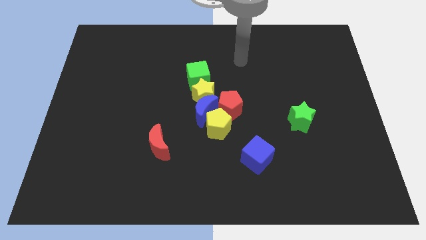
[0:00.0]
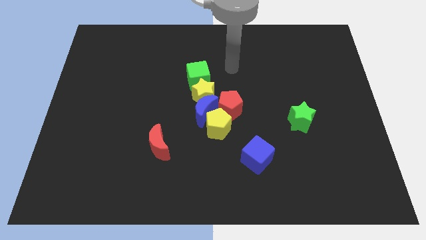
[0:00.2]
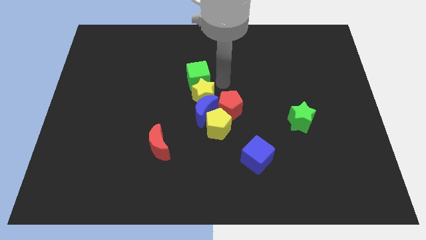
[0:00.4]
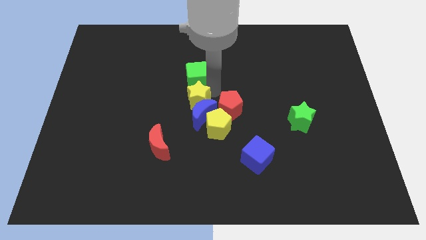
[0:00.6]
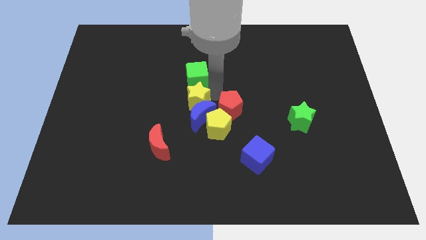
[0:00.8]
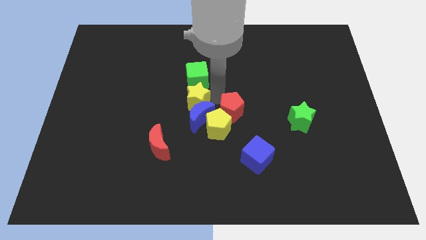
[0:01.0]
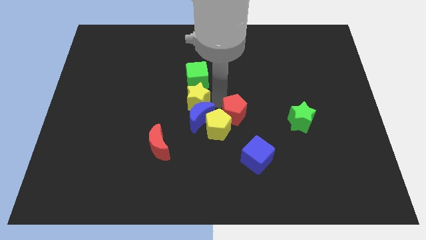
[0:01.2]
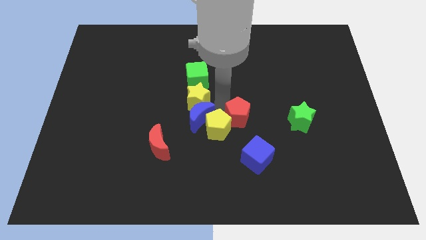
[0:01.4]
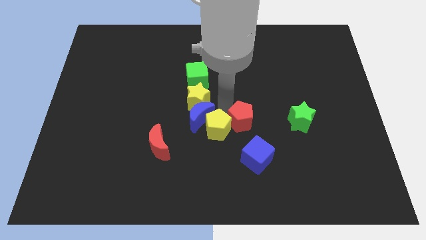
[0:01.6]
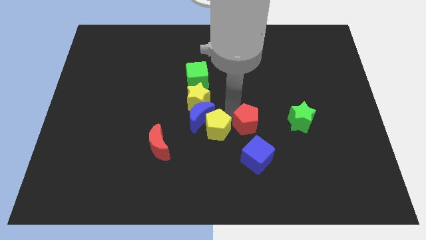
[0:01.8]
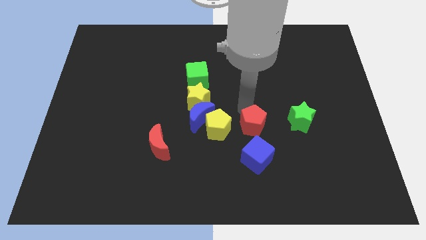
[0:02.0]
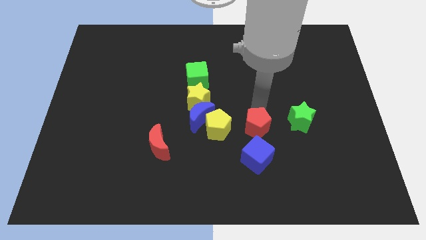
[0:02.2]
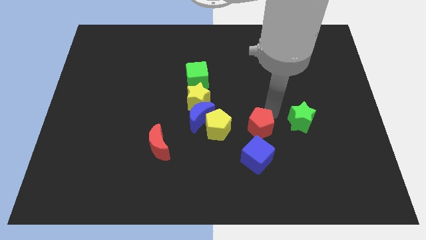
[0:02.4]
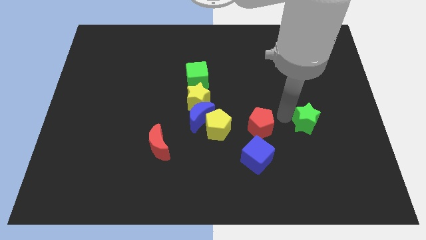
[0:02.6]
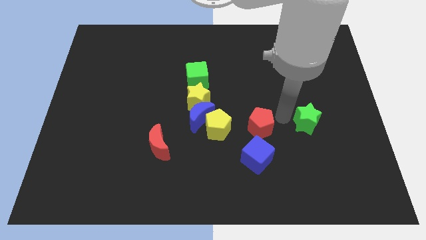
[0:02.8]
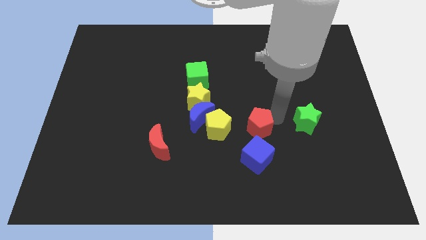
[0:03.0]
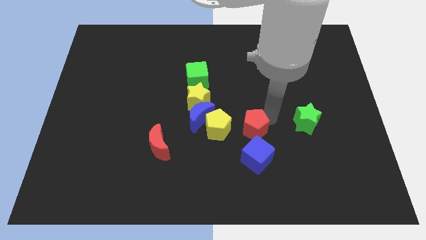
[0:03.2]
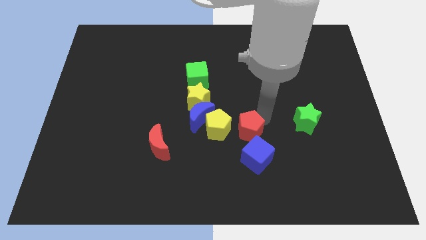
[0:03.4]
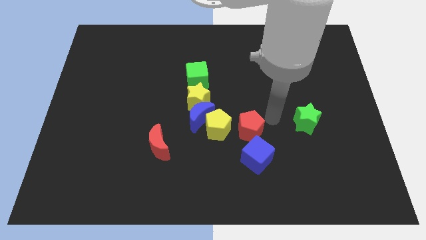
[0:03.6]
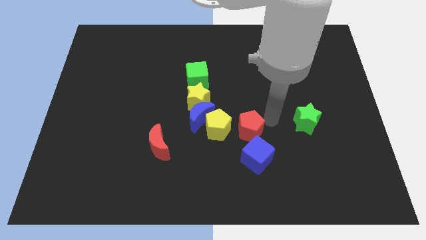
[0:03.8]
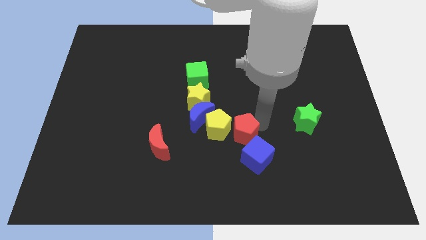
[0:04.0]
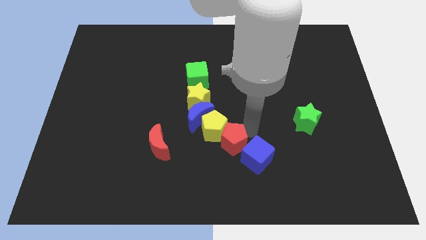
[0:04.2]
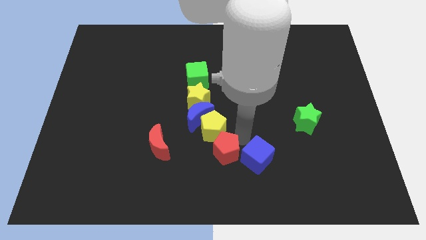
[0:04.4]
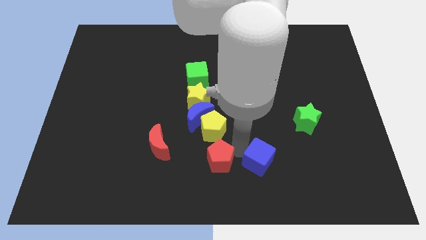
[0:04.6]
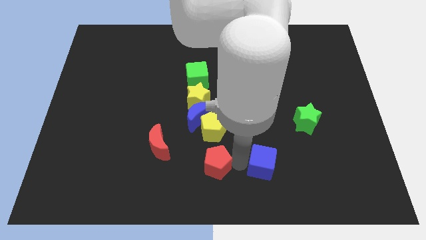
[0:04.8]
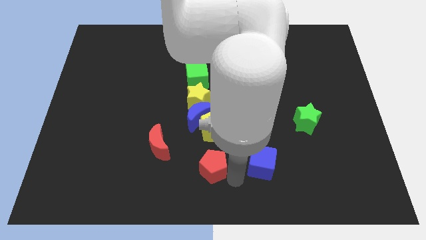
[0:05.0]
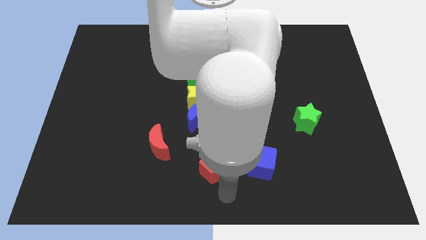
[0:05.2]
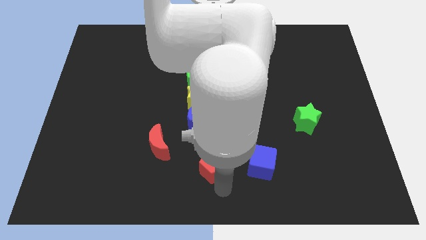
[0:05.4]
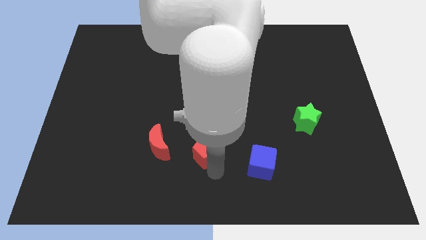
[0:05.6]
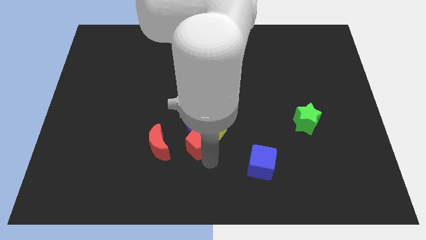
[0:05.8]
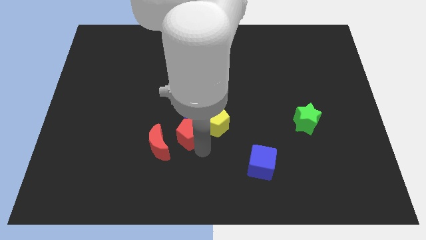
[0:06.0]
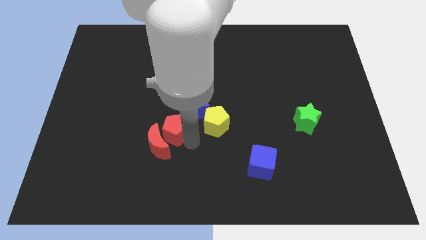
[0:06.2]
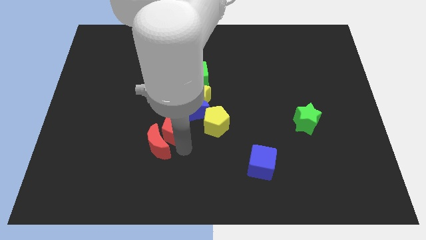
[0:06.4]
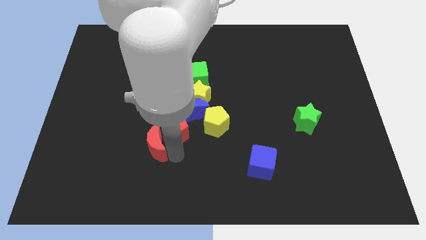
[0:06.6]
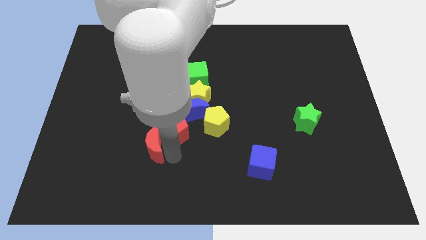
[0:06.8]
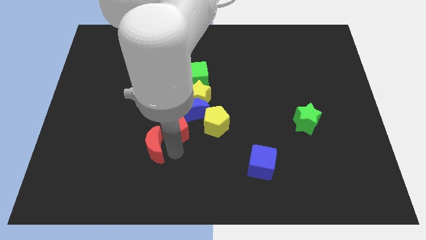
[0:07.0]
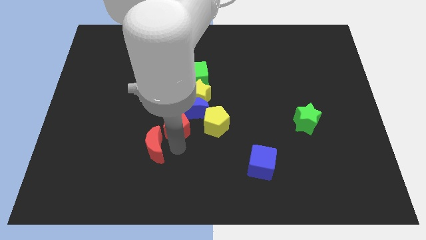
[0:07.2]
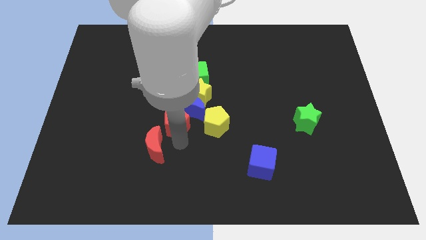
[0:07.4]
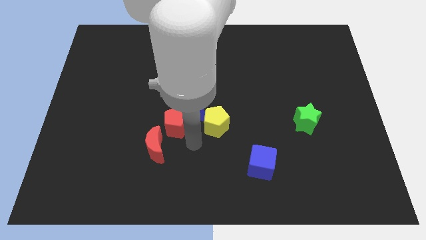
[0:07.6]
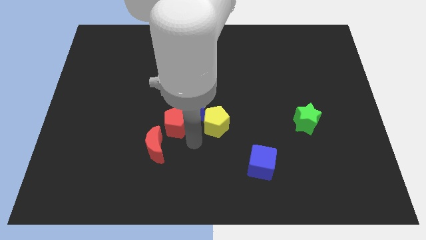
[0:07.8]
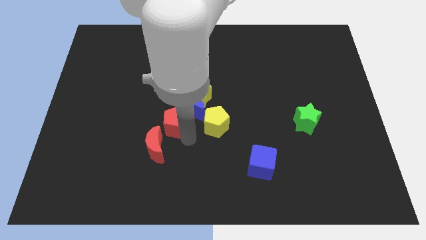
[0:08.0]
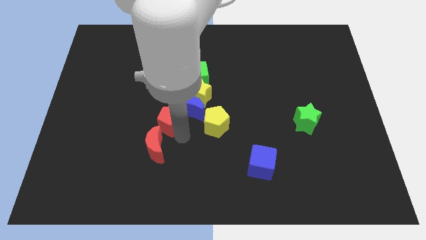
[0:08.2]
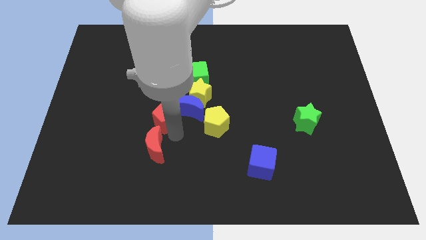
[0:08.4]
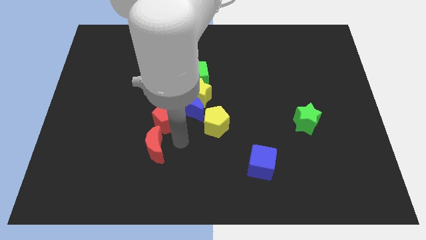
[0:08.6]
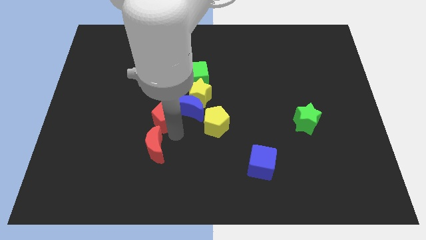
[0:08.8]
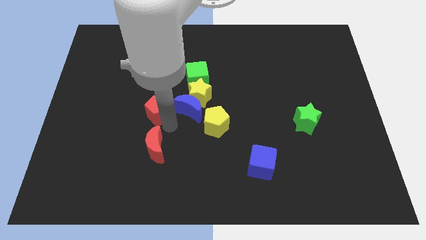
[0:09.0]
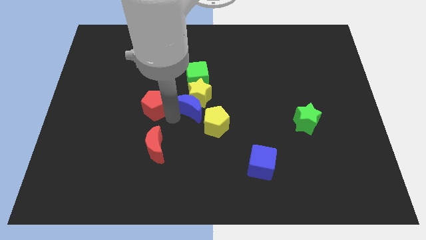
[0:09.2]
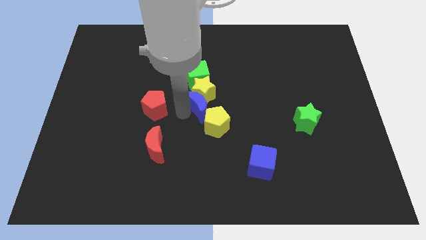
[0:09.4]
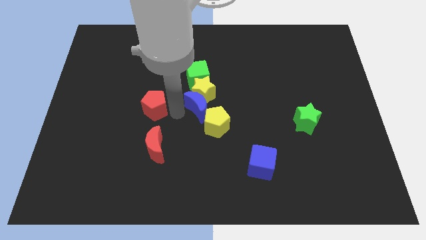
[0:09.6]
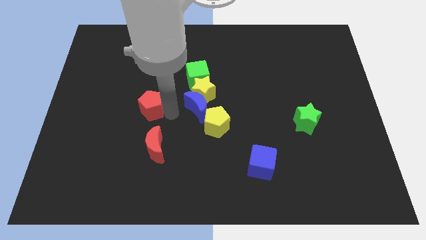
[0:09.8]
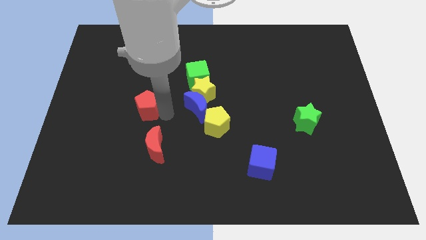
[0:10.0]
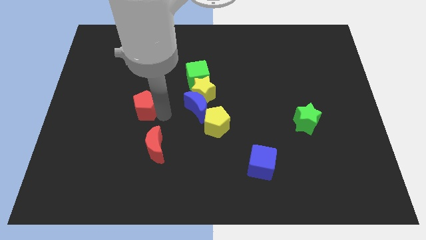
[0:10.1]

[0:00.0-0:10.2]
slide the red pentagon to the left

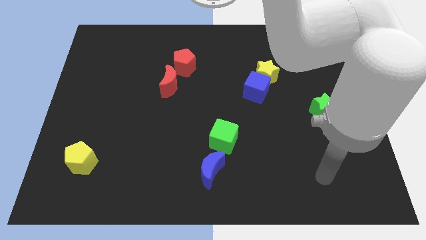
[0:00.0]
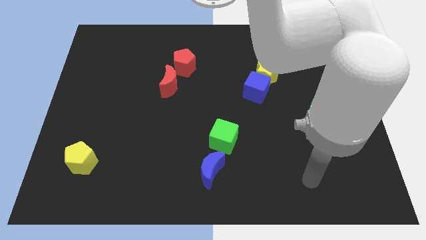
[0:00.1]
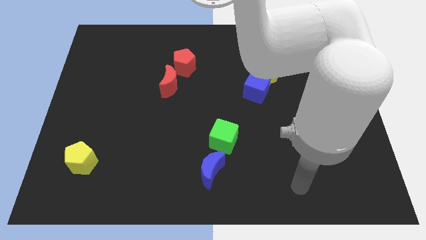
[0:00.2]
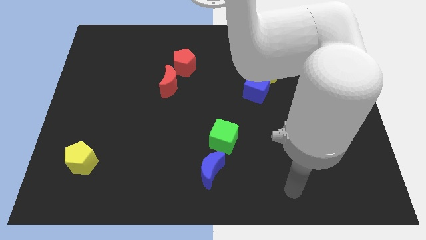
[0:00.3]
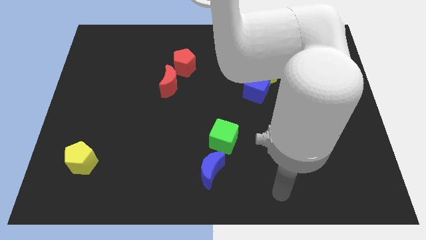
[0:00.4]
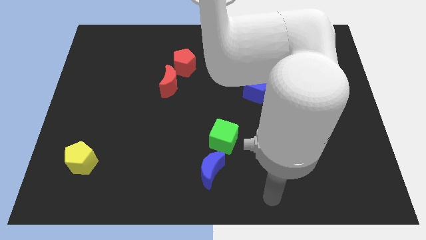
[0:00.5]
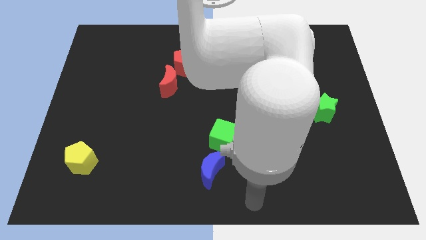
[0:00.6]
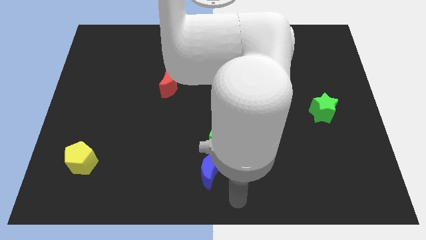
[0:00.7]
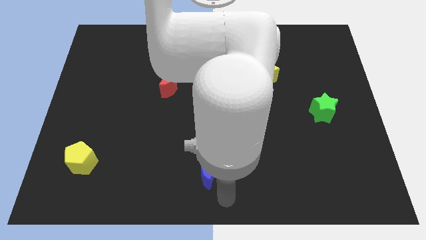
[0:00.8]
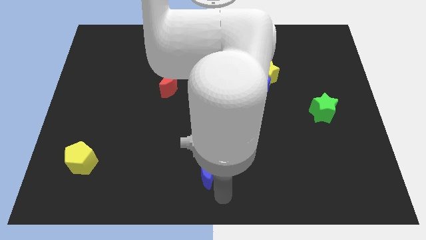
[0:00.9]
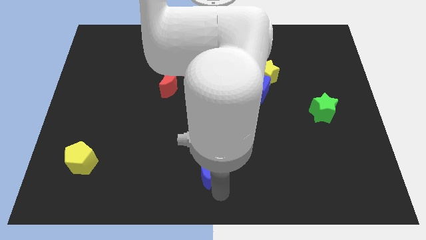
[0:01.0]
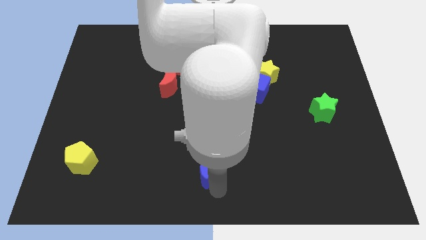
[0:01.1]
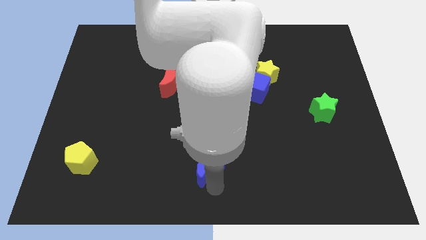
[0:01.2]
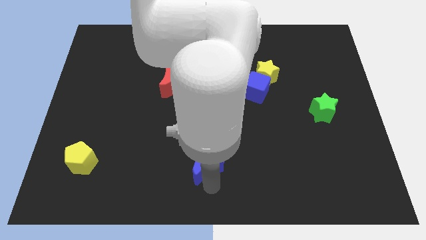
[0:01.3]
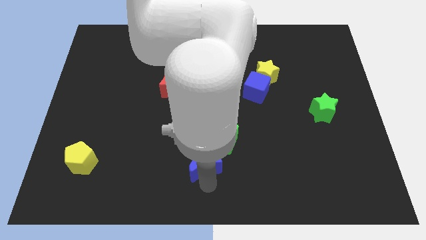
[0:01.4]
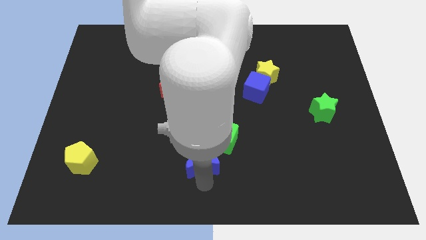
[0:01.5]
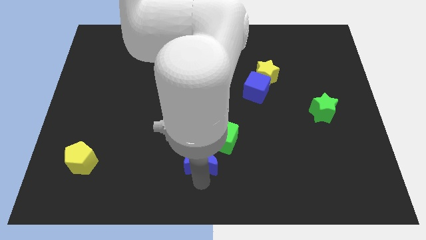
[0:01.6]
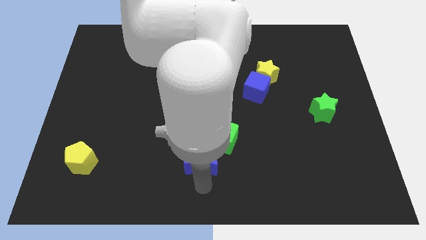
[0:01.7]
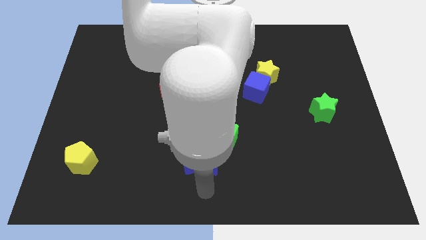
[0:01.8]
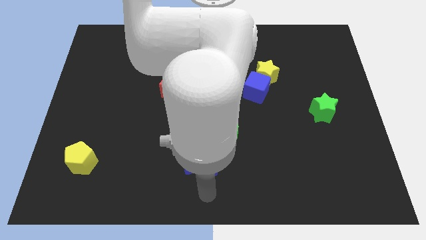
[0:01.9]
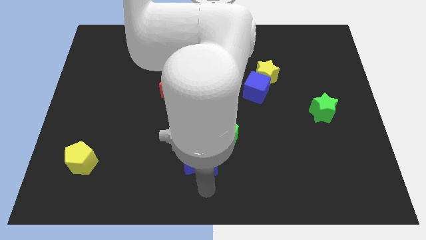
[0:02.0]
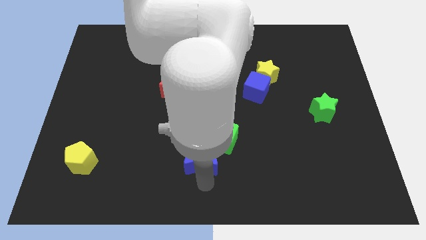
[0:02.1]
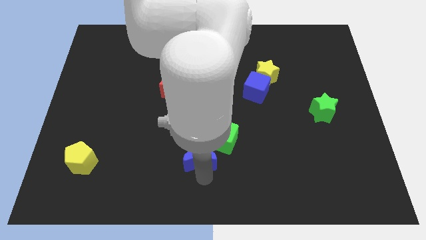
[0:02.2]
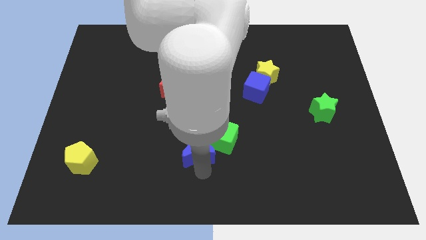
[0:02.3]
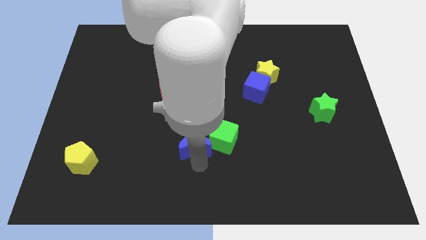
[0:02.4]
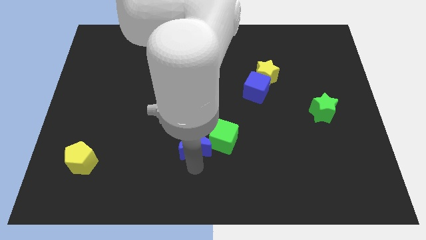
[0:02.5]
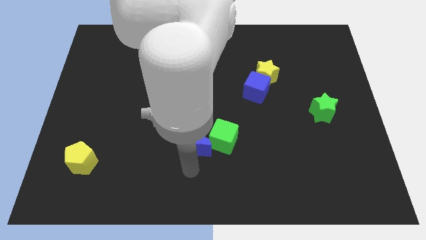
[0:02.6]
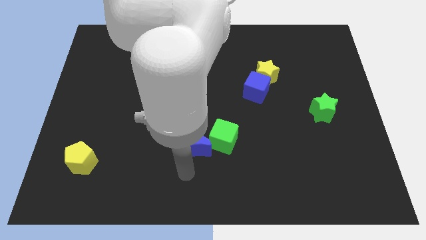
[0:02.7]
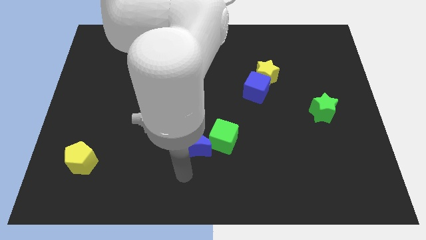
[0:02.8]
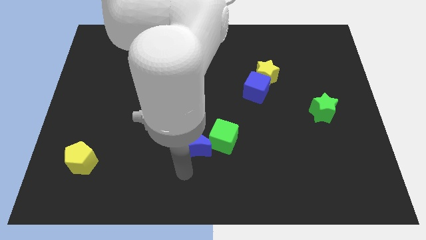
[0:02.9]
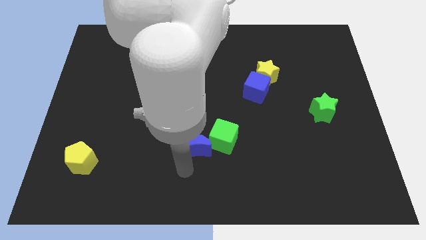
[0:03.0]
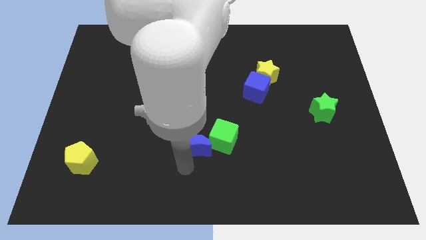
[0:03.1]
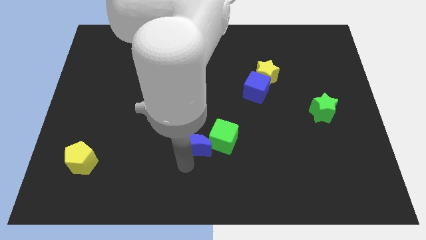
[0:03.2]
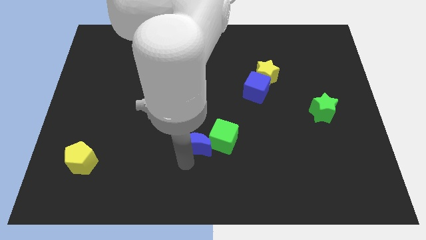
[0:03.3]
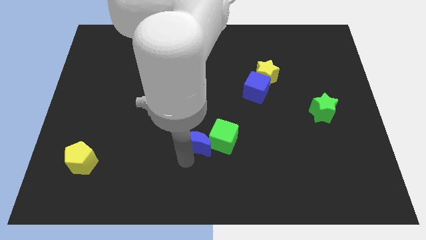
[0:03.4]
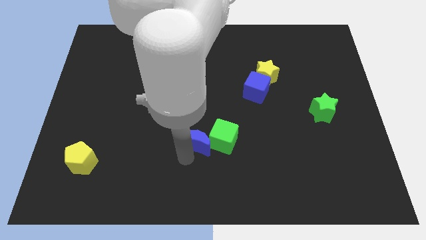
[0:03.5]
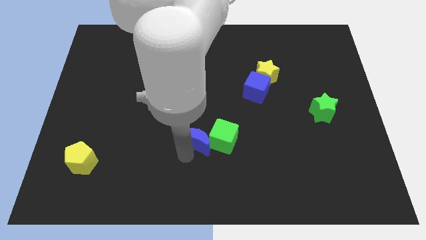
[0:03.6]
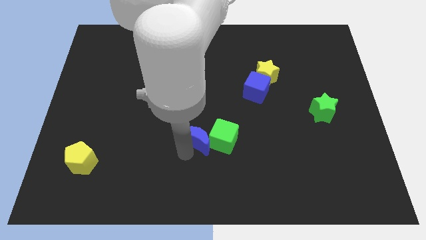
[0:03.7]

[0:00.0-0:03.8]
slide the blue moon a little up
